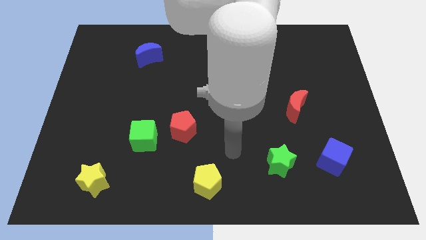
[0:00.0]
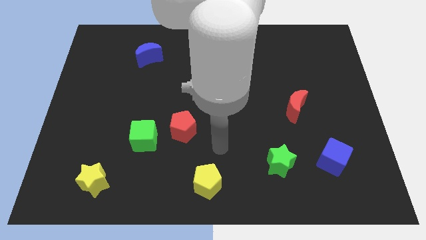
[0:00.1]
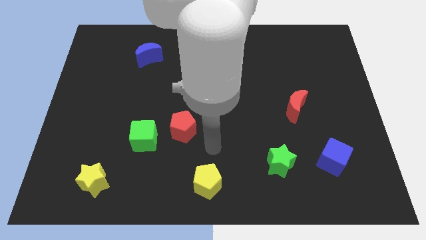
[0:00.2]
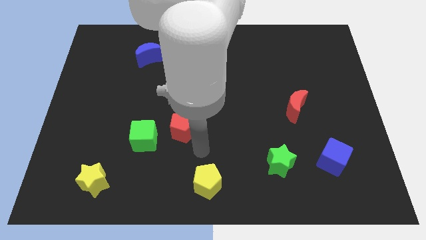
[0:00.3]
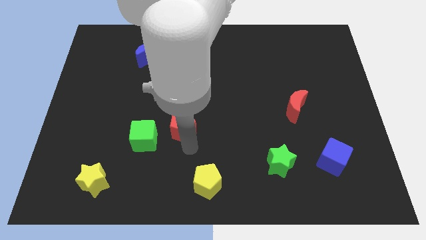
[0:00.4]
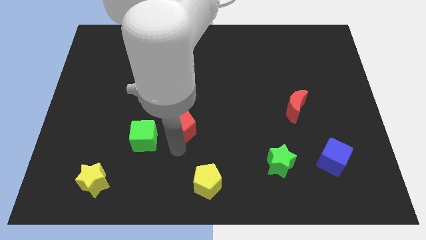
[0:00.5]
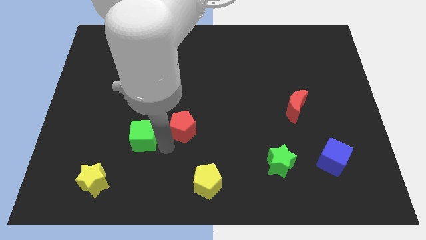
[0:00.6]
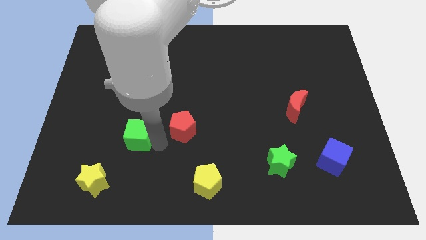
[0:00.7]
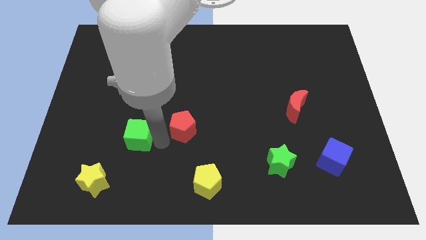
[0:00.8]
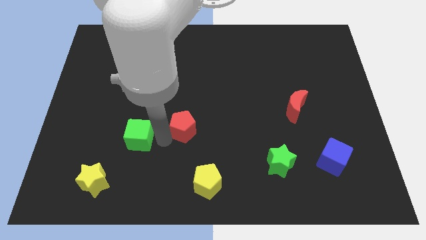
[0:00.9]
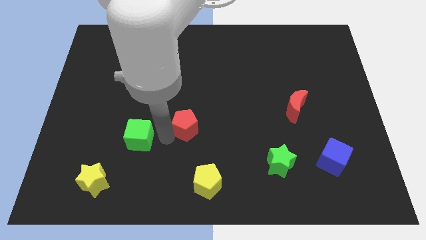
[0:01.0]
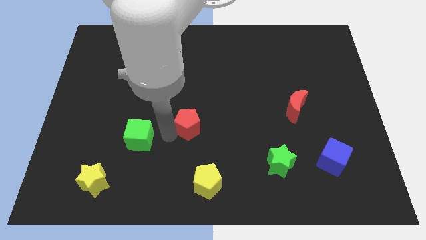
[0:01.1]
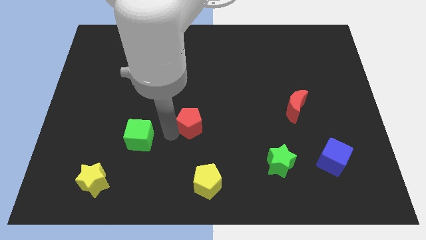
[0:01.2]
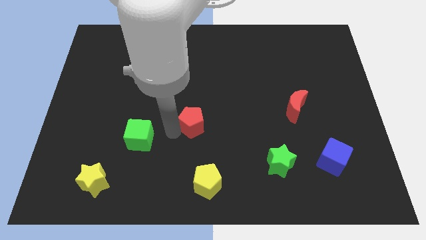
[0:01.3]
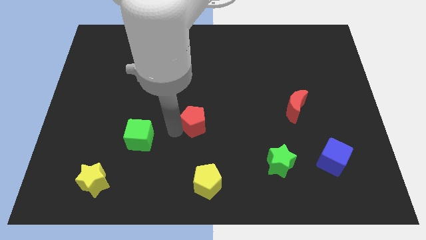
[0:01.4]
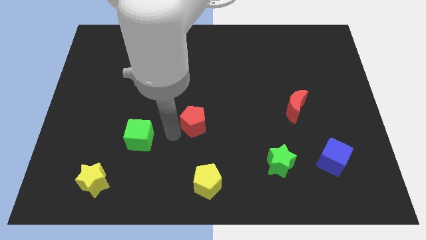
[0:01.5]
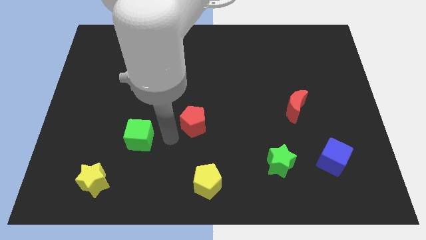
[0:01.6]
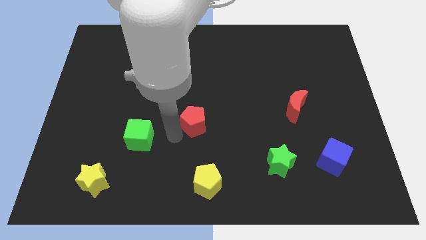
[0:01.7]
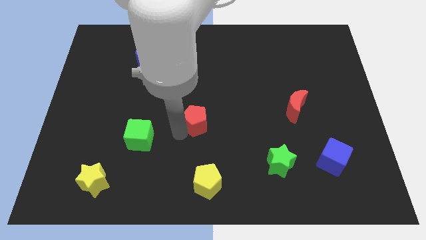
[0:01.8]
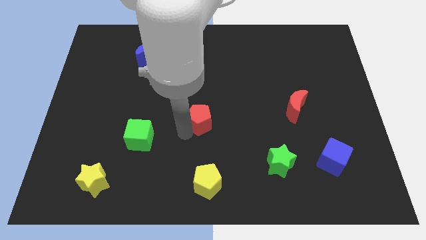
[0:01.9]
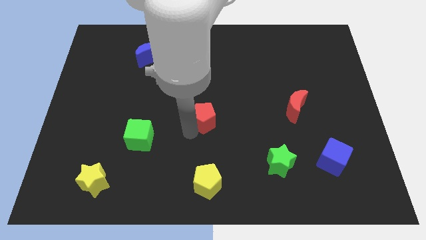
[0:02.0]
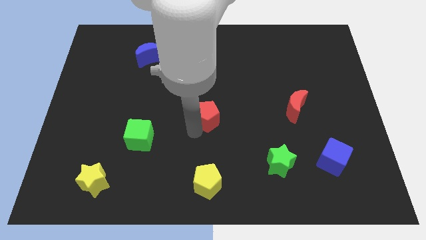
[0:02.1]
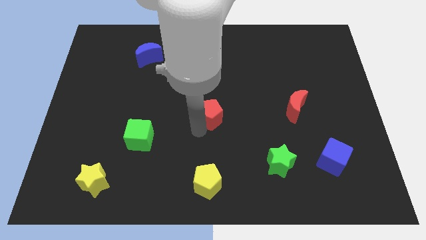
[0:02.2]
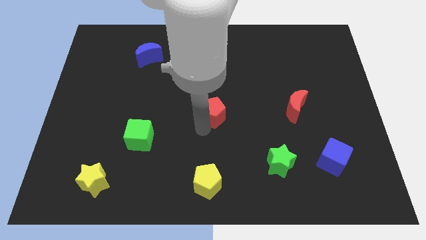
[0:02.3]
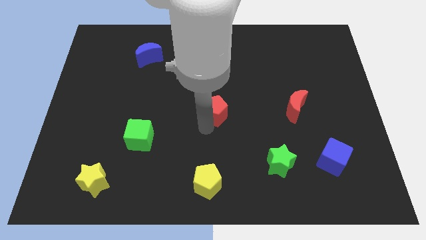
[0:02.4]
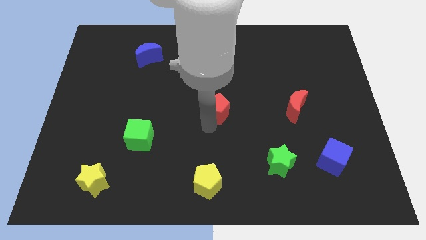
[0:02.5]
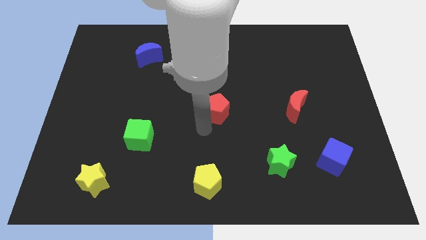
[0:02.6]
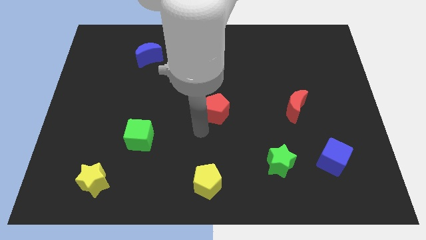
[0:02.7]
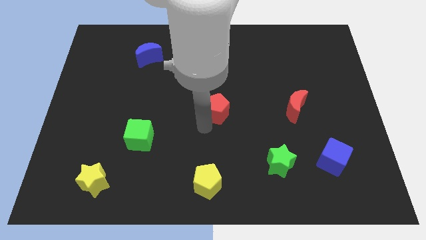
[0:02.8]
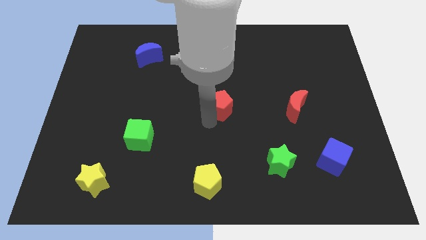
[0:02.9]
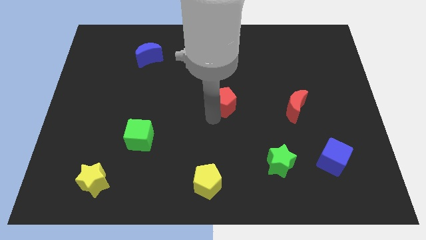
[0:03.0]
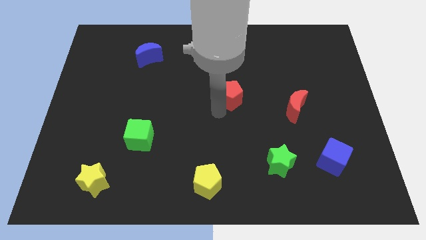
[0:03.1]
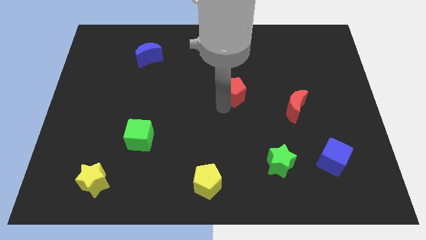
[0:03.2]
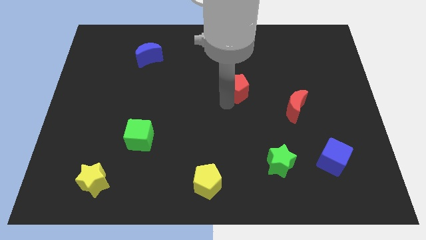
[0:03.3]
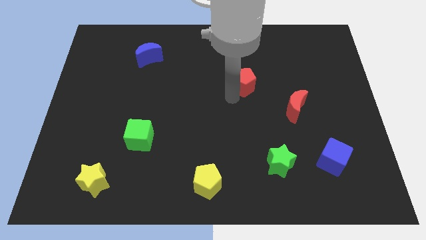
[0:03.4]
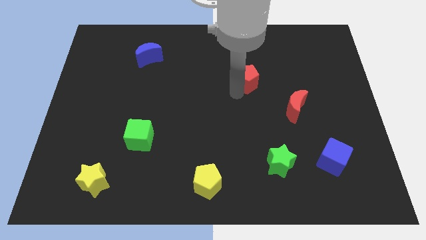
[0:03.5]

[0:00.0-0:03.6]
slide the red pentagon up and right diagonally

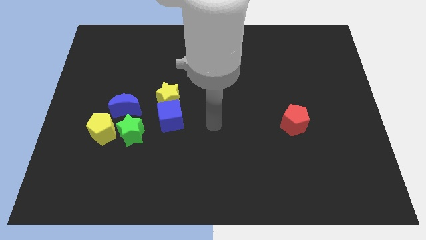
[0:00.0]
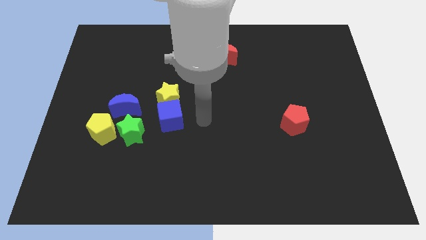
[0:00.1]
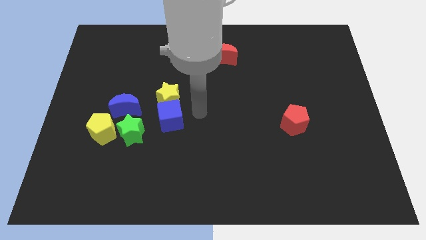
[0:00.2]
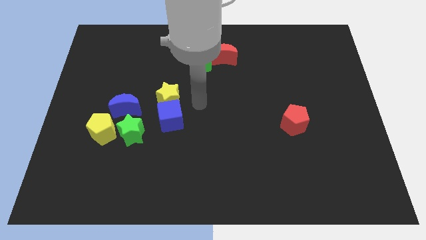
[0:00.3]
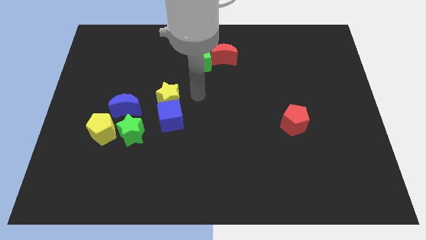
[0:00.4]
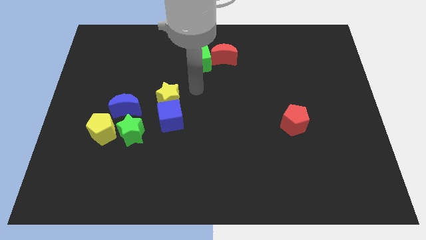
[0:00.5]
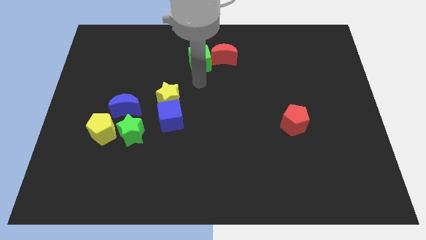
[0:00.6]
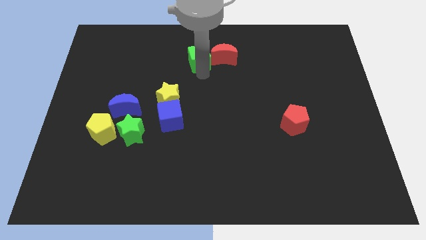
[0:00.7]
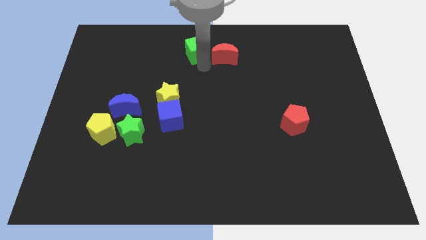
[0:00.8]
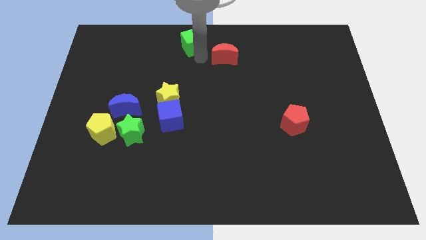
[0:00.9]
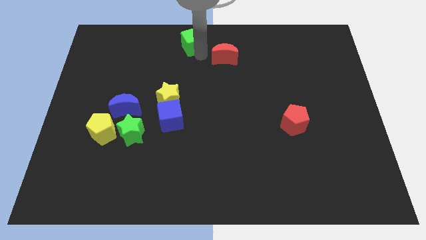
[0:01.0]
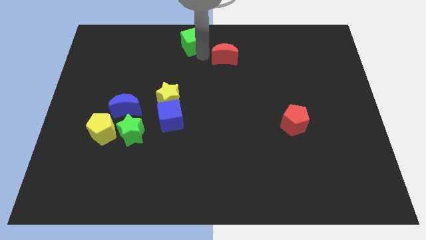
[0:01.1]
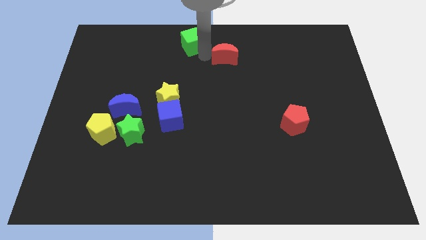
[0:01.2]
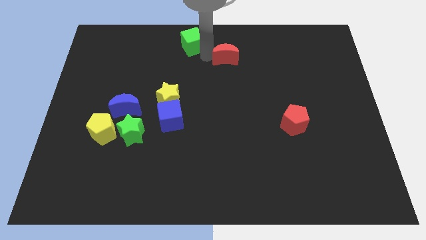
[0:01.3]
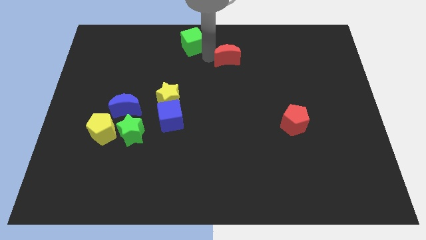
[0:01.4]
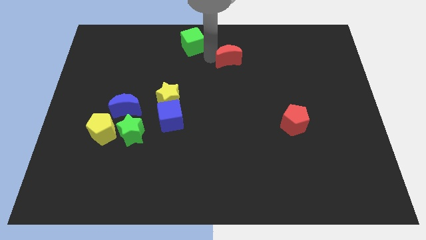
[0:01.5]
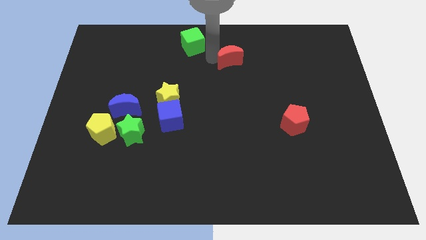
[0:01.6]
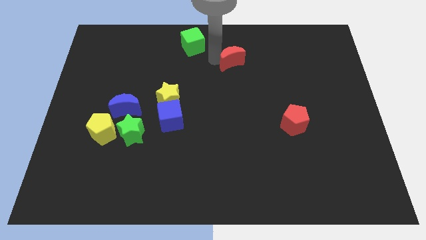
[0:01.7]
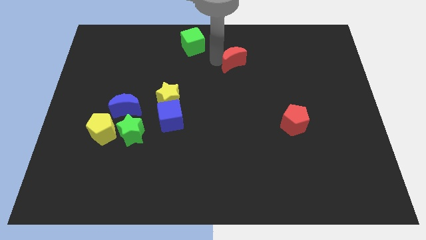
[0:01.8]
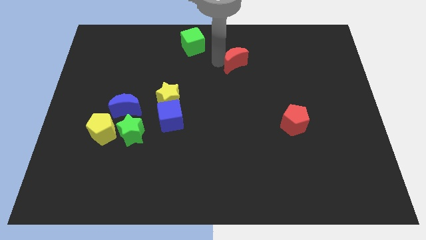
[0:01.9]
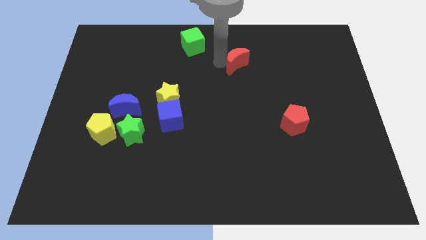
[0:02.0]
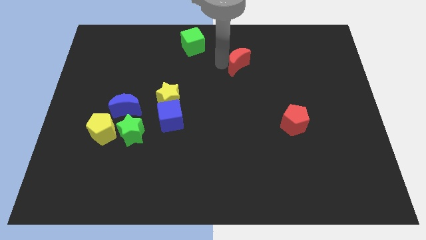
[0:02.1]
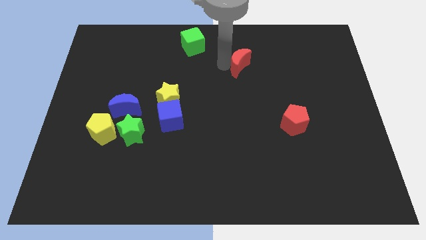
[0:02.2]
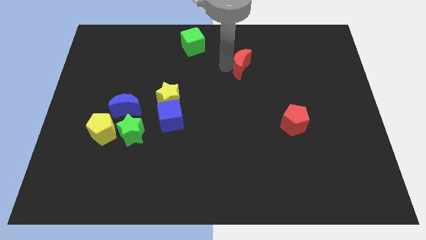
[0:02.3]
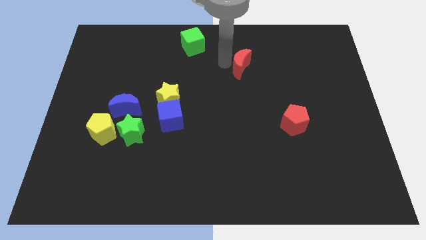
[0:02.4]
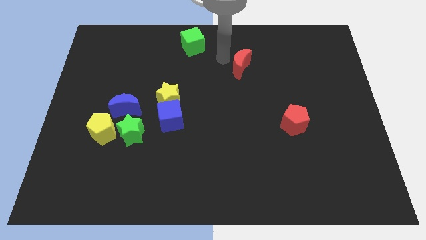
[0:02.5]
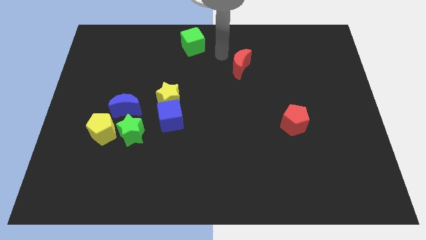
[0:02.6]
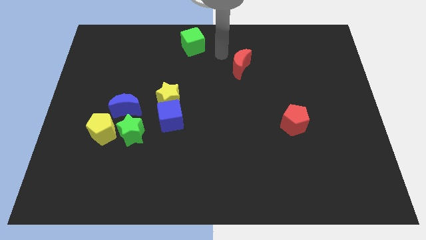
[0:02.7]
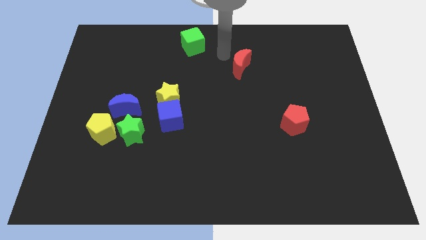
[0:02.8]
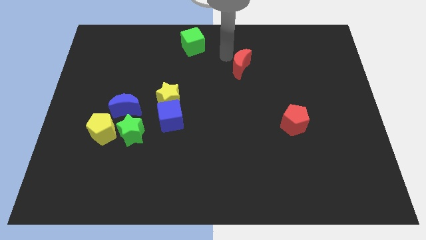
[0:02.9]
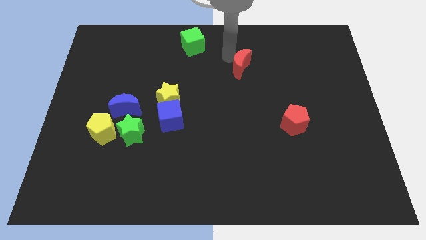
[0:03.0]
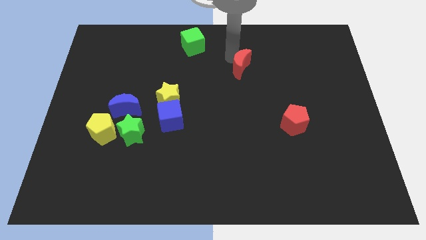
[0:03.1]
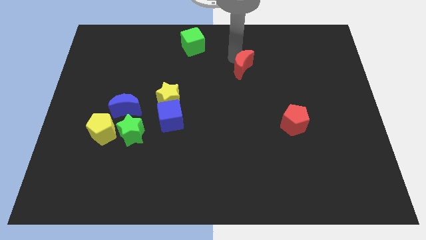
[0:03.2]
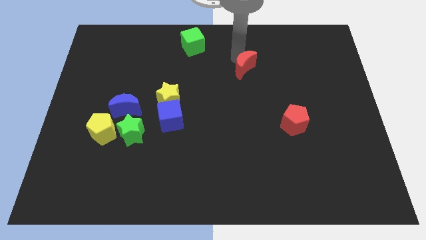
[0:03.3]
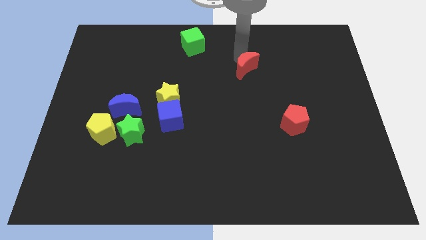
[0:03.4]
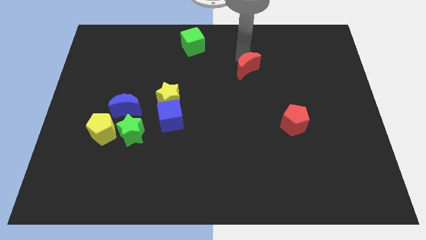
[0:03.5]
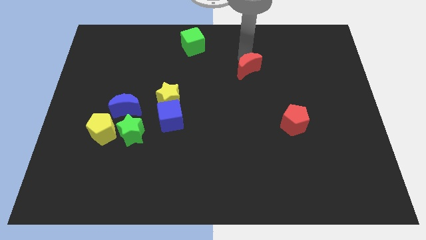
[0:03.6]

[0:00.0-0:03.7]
push the red moon slightly downwards and then to the right

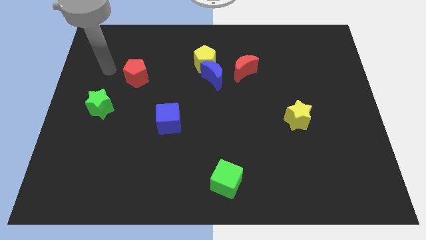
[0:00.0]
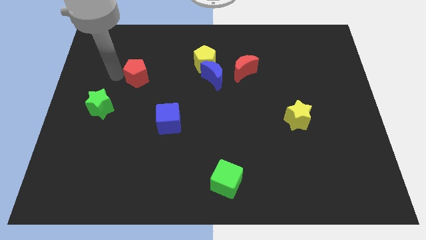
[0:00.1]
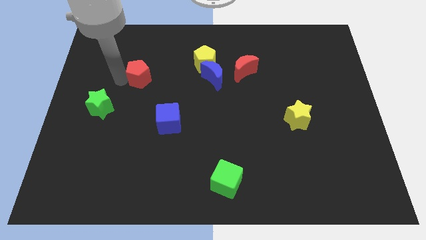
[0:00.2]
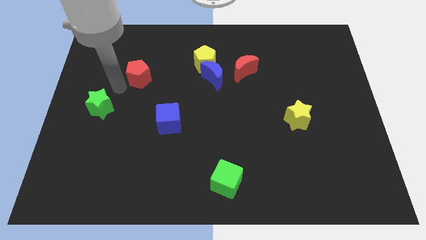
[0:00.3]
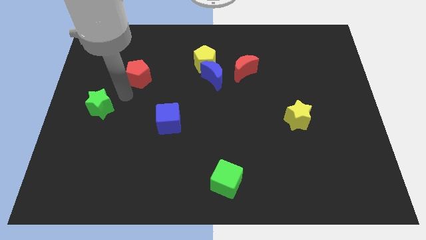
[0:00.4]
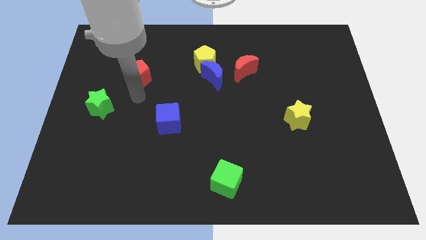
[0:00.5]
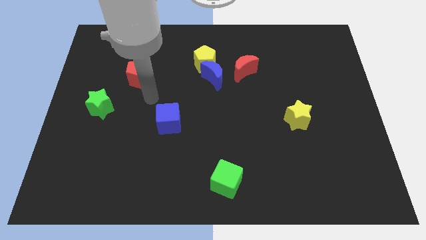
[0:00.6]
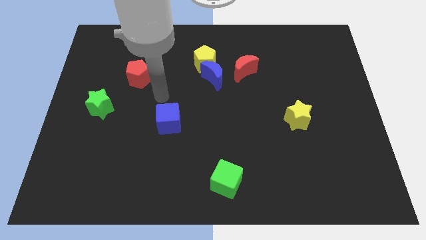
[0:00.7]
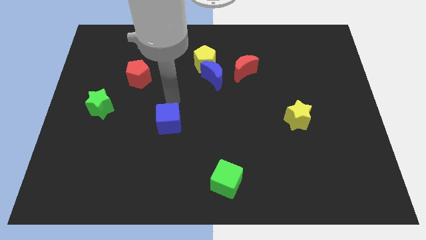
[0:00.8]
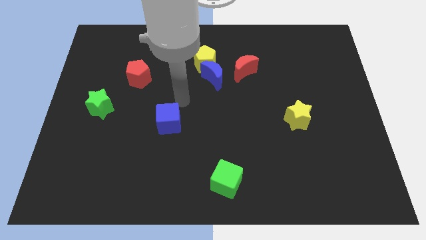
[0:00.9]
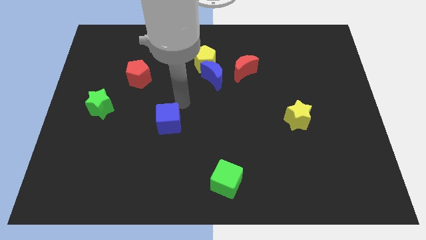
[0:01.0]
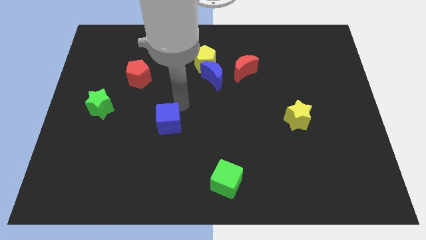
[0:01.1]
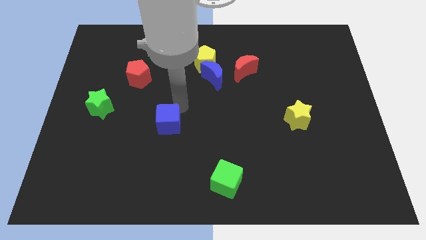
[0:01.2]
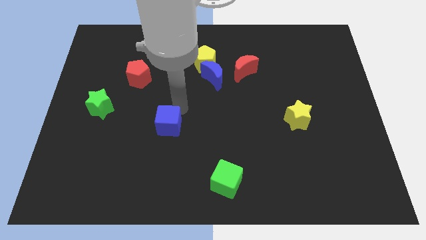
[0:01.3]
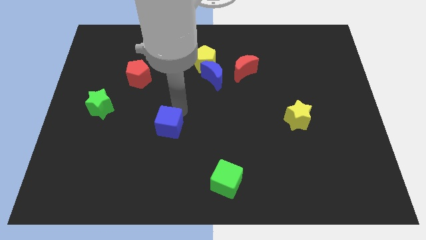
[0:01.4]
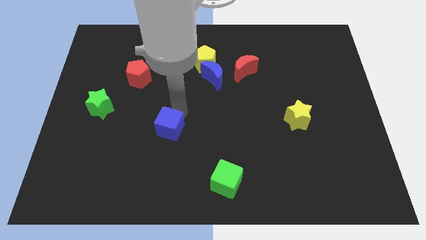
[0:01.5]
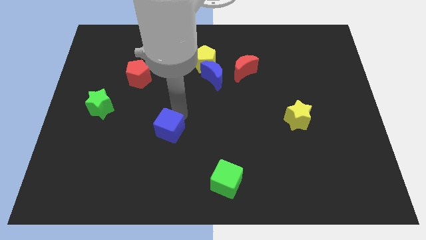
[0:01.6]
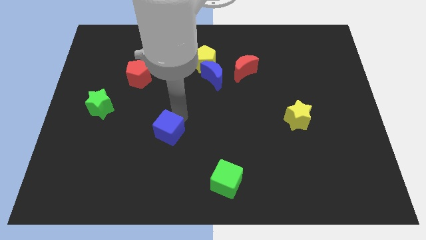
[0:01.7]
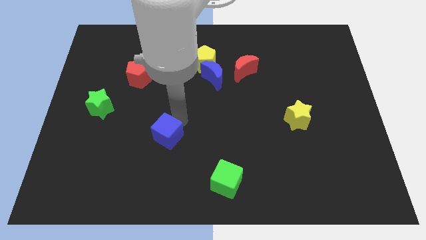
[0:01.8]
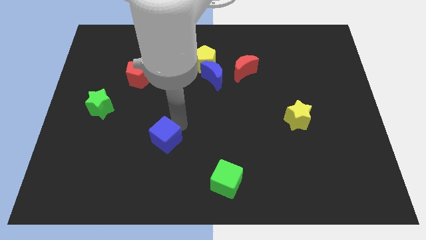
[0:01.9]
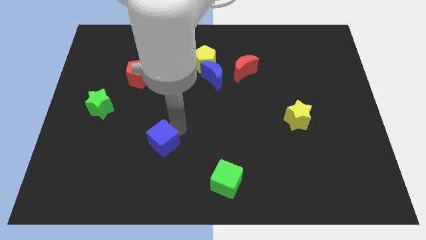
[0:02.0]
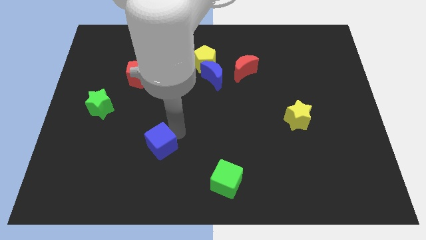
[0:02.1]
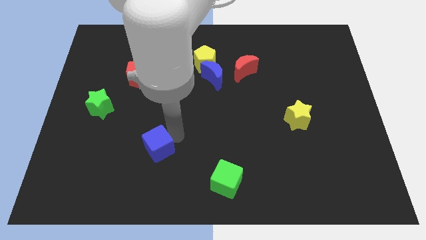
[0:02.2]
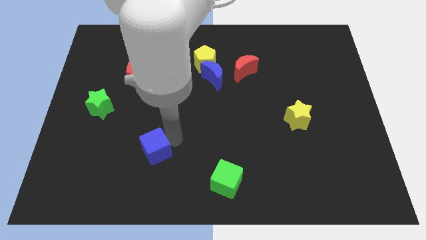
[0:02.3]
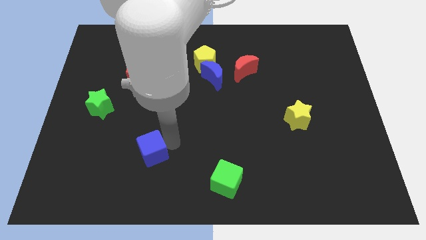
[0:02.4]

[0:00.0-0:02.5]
slightly move the blue cube downwards and left diagonally
